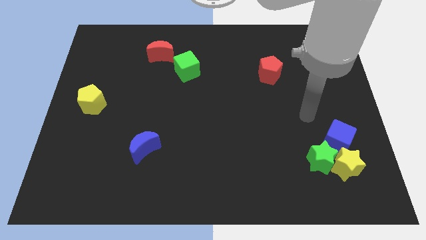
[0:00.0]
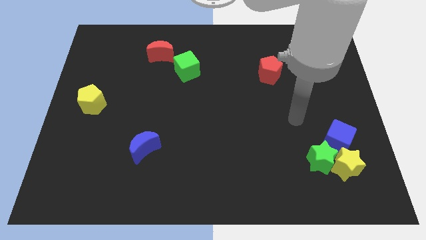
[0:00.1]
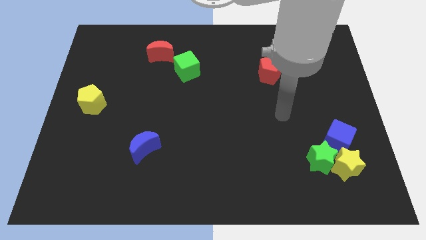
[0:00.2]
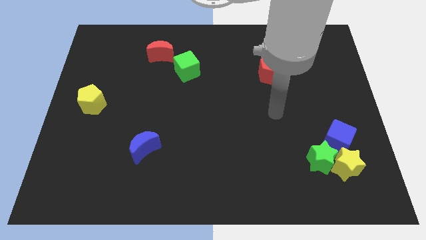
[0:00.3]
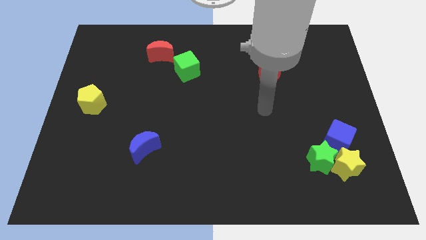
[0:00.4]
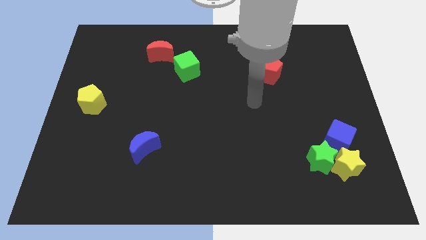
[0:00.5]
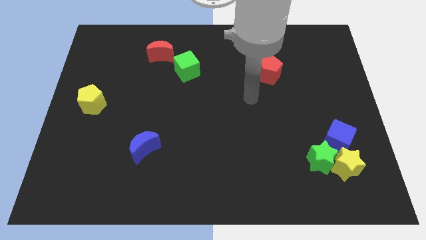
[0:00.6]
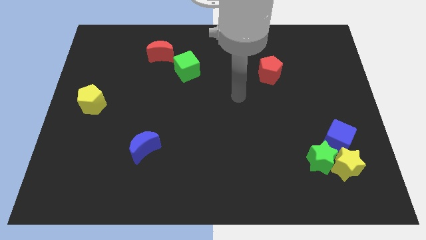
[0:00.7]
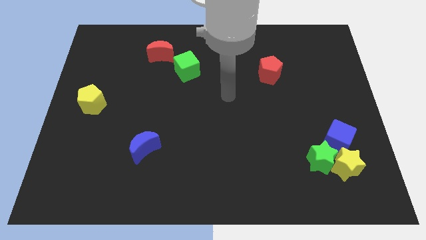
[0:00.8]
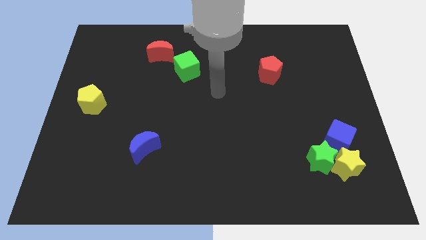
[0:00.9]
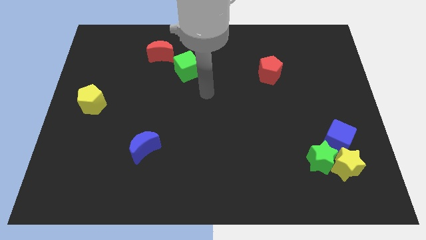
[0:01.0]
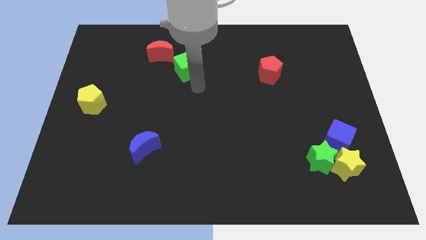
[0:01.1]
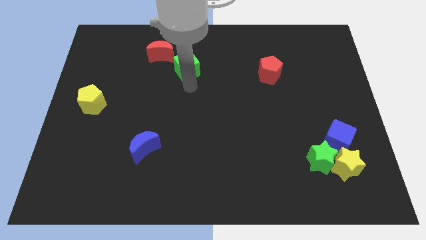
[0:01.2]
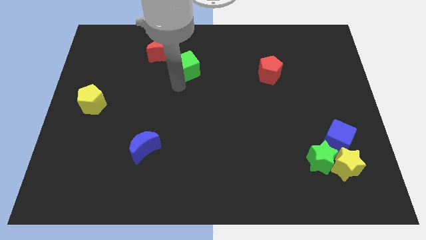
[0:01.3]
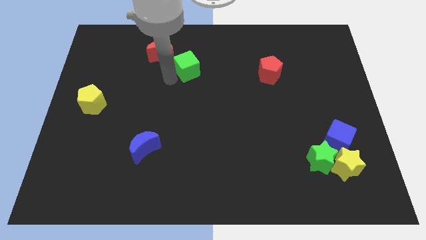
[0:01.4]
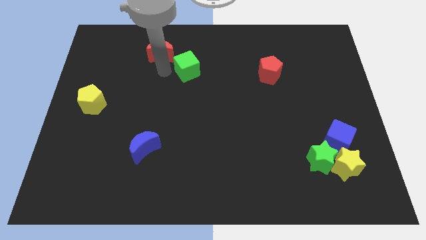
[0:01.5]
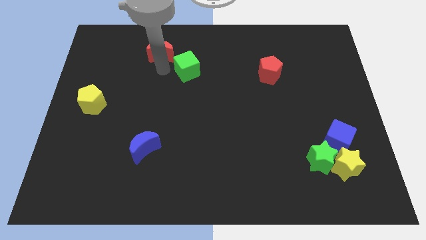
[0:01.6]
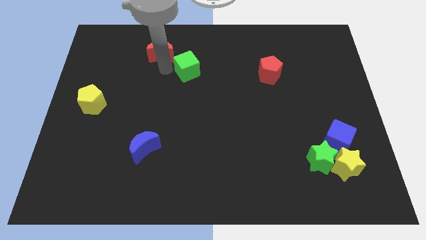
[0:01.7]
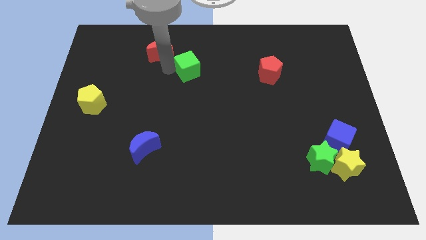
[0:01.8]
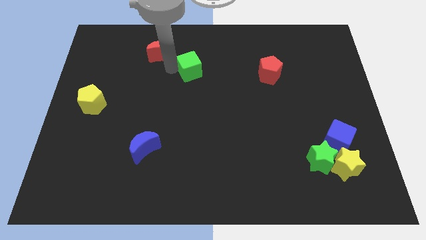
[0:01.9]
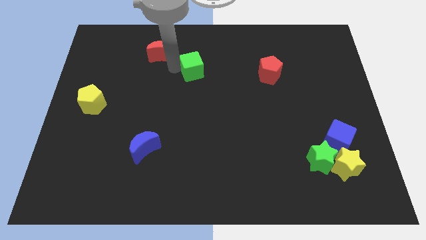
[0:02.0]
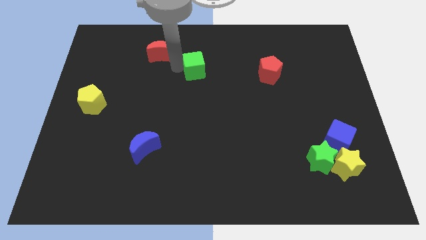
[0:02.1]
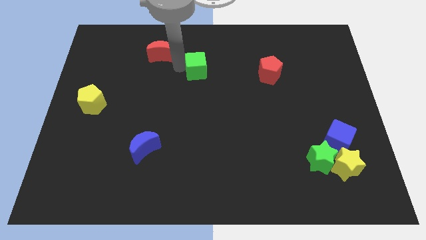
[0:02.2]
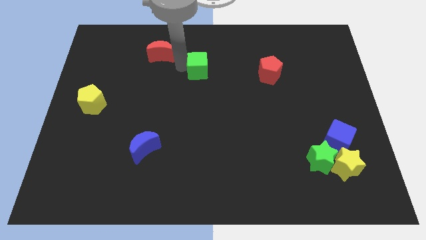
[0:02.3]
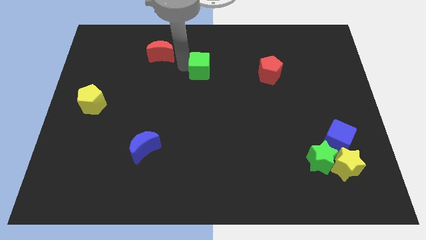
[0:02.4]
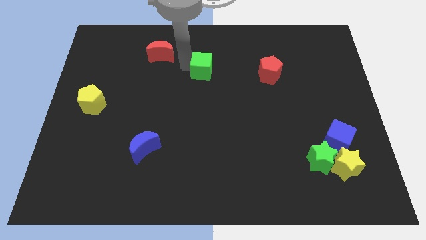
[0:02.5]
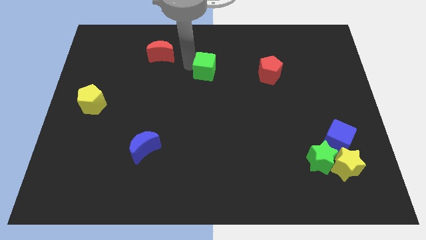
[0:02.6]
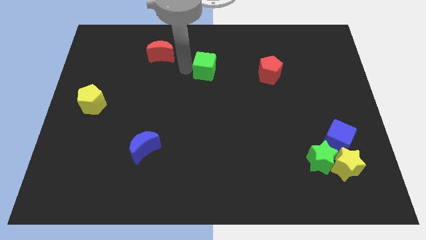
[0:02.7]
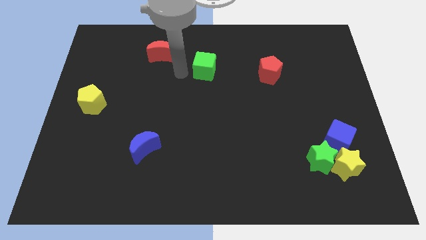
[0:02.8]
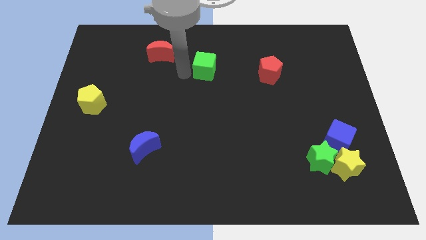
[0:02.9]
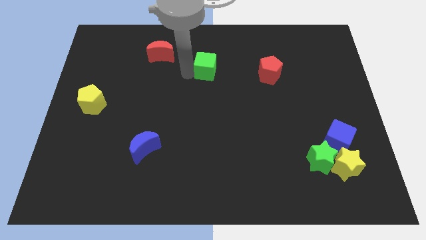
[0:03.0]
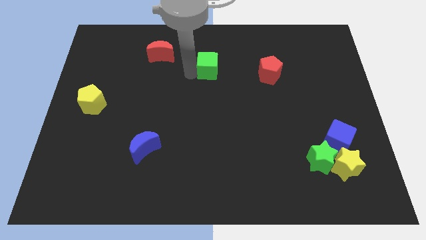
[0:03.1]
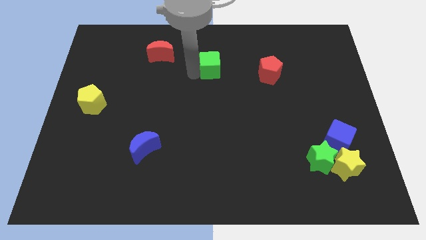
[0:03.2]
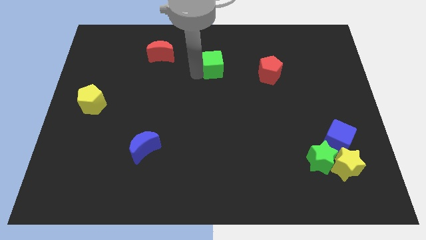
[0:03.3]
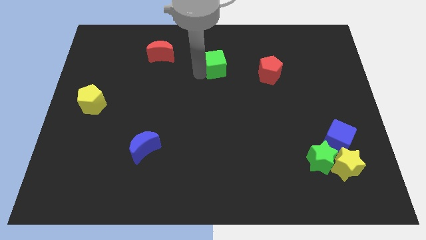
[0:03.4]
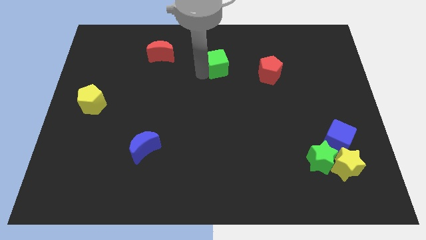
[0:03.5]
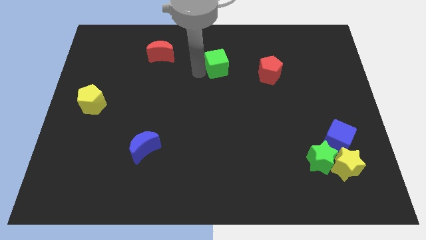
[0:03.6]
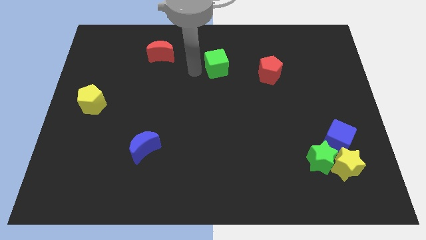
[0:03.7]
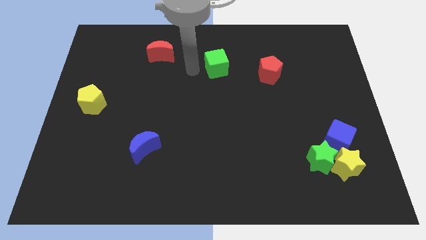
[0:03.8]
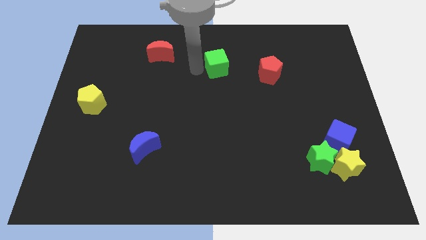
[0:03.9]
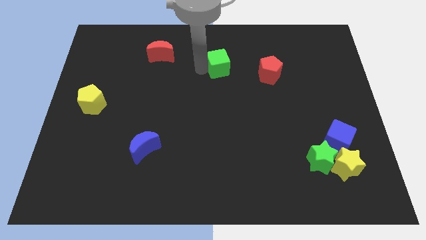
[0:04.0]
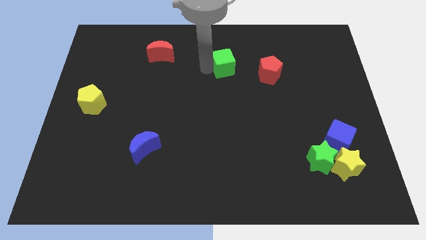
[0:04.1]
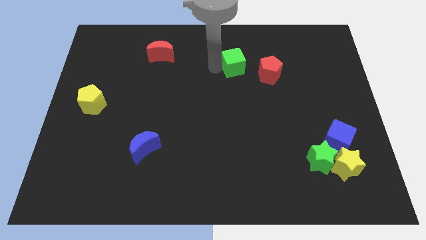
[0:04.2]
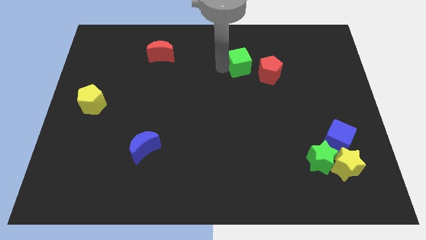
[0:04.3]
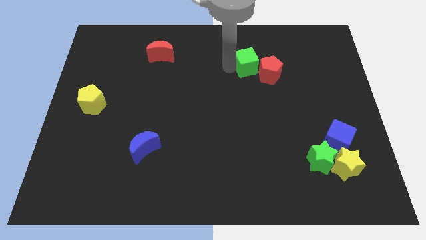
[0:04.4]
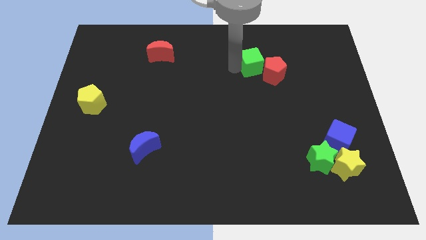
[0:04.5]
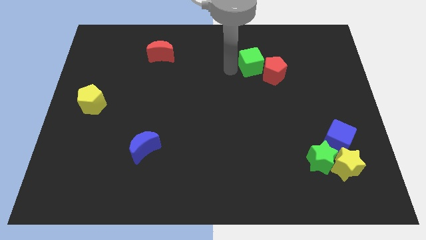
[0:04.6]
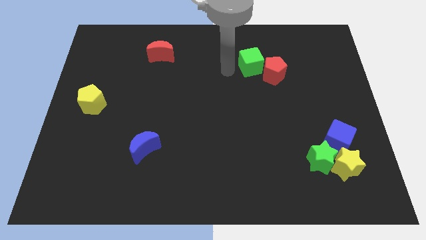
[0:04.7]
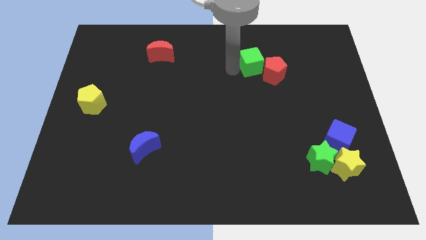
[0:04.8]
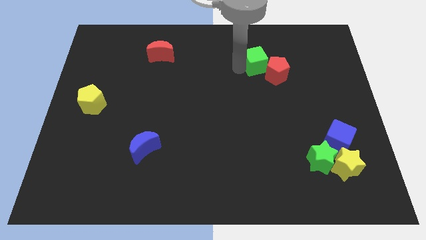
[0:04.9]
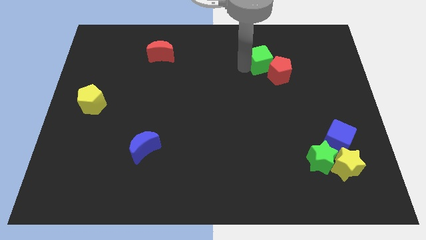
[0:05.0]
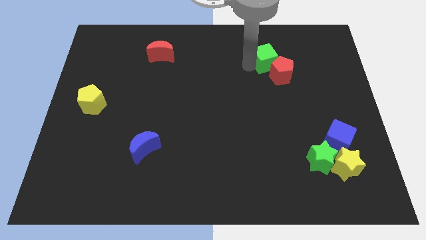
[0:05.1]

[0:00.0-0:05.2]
slide the green cube right

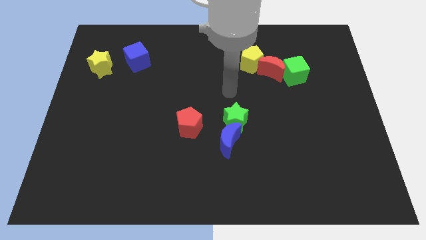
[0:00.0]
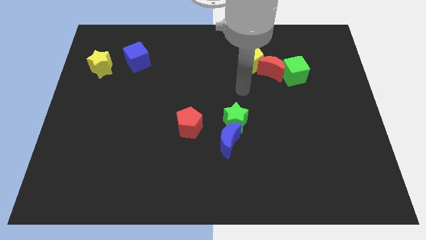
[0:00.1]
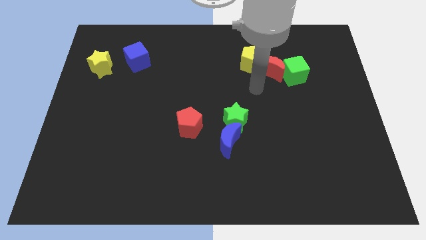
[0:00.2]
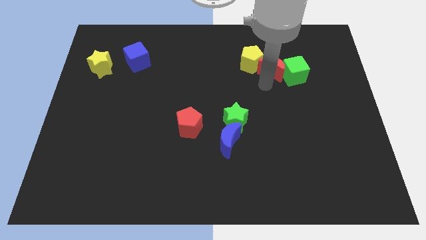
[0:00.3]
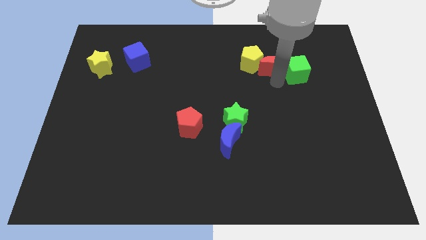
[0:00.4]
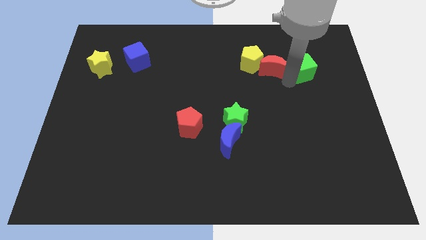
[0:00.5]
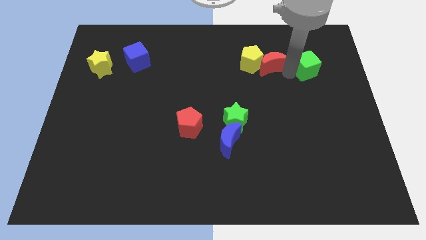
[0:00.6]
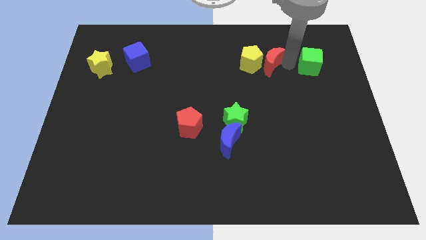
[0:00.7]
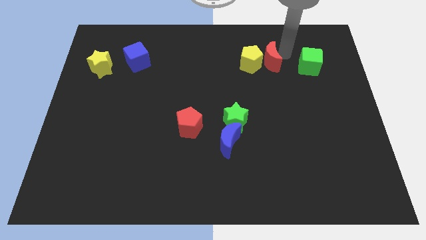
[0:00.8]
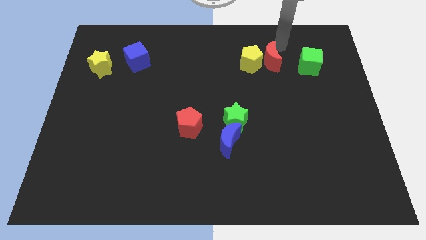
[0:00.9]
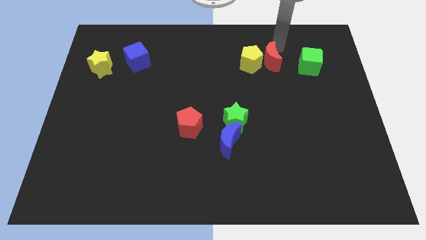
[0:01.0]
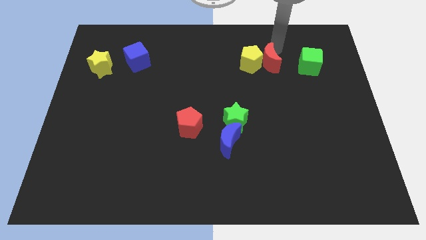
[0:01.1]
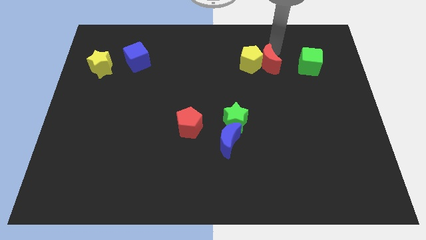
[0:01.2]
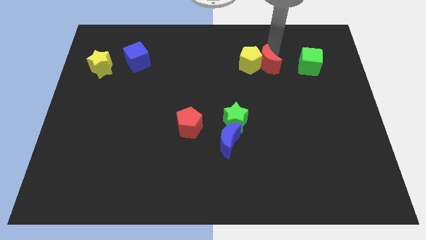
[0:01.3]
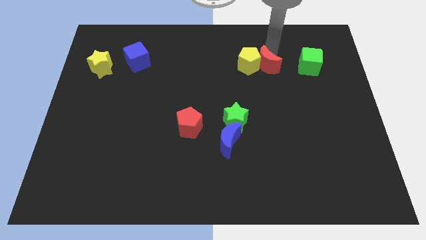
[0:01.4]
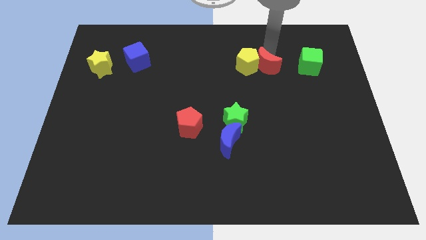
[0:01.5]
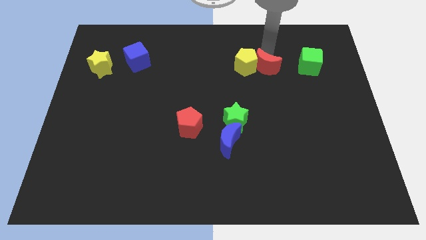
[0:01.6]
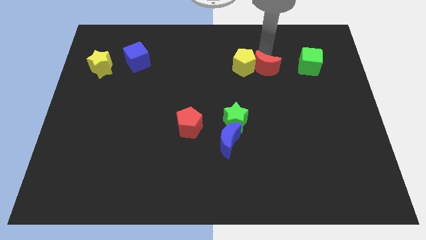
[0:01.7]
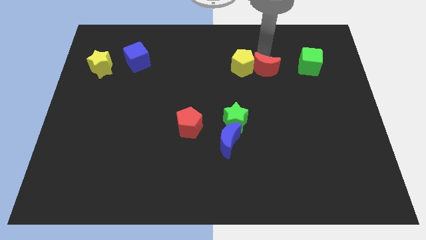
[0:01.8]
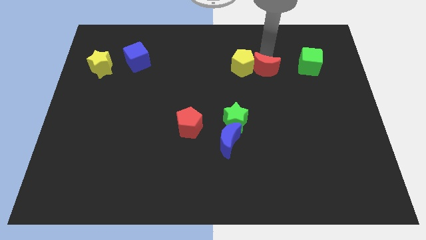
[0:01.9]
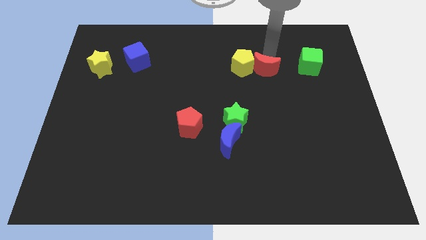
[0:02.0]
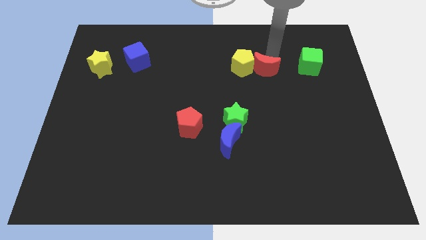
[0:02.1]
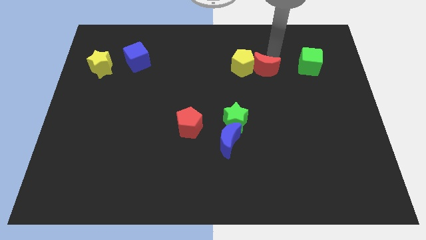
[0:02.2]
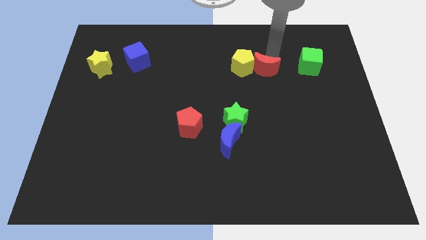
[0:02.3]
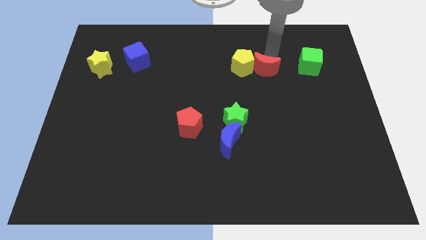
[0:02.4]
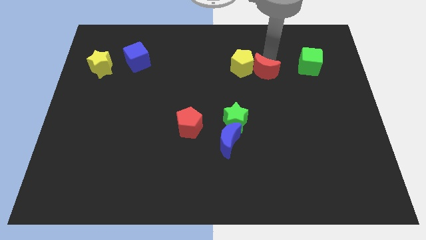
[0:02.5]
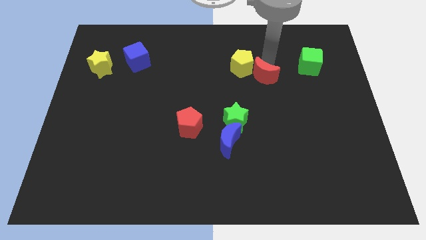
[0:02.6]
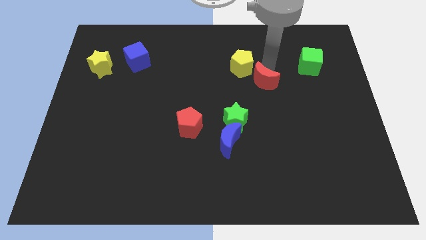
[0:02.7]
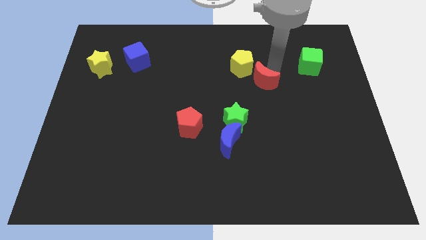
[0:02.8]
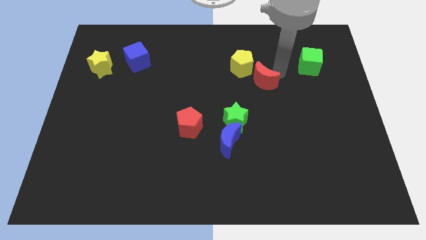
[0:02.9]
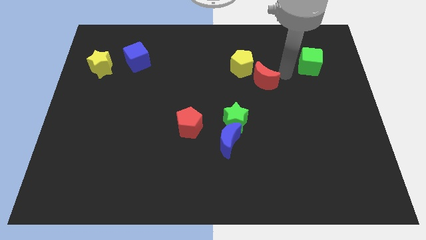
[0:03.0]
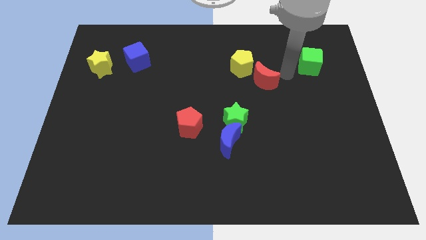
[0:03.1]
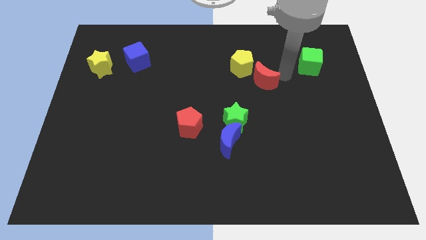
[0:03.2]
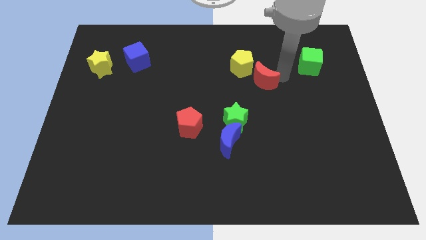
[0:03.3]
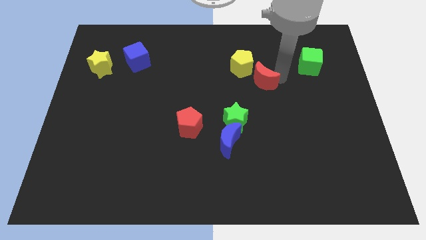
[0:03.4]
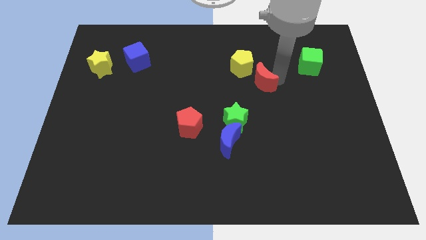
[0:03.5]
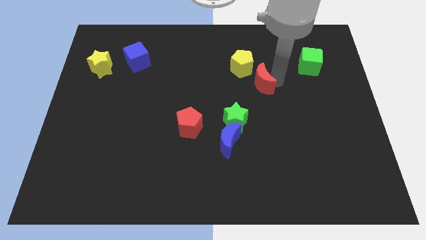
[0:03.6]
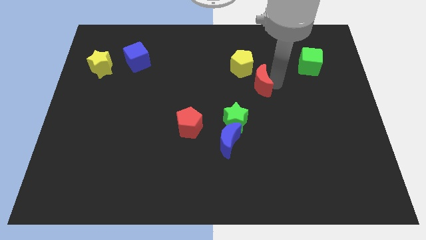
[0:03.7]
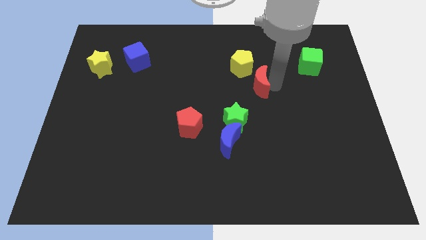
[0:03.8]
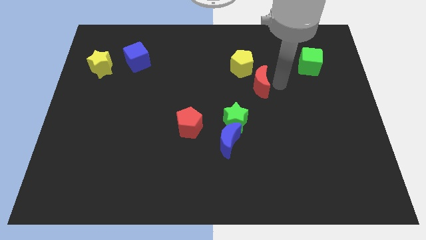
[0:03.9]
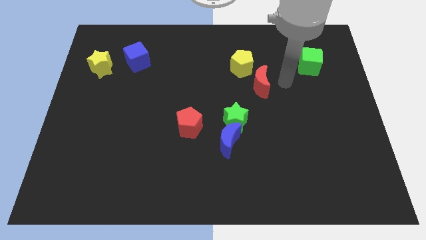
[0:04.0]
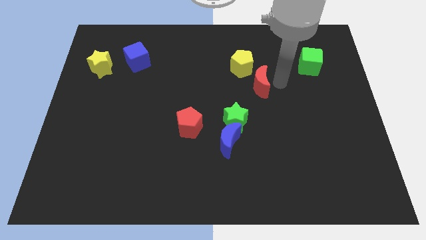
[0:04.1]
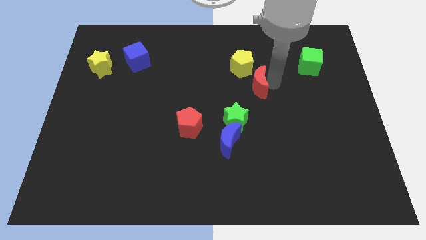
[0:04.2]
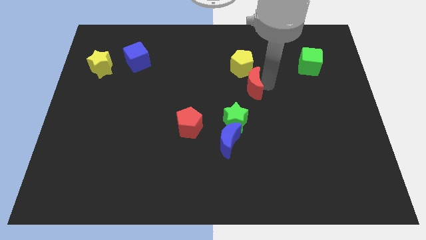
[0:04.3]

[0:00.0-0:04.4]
push the red moon somewhat downwards and to the left
